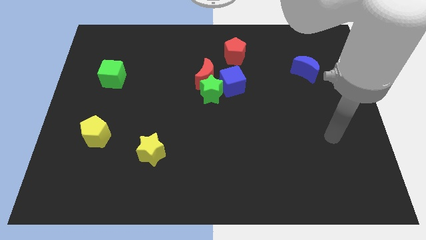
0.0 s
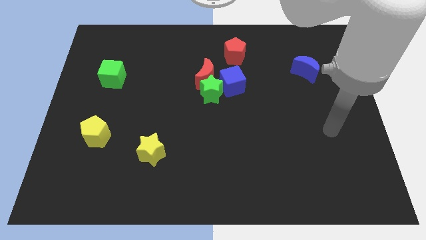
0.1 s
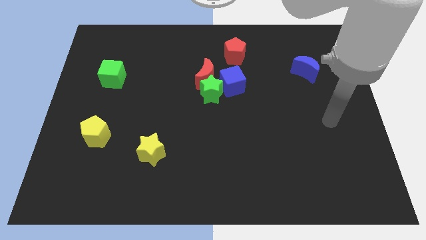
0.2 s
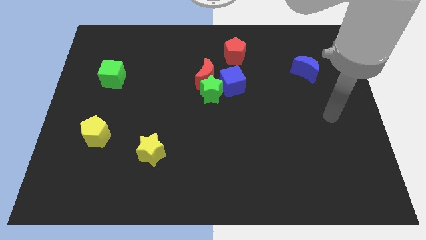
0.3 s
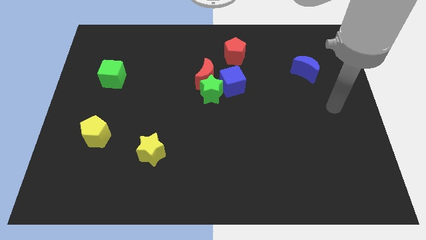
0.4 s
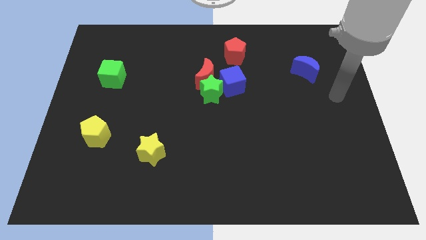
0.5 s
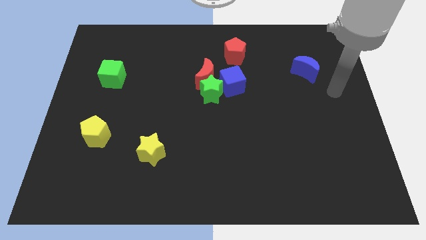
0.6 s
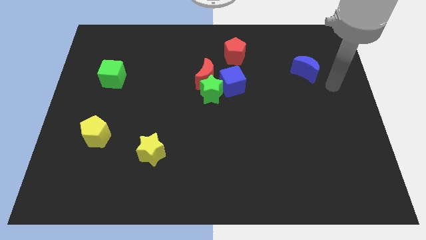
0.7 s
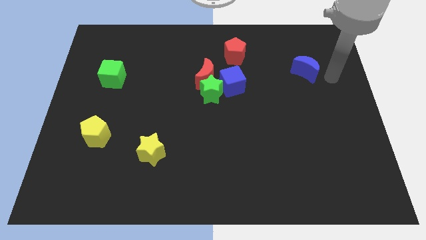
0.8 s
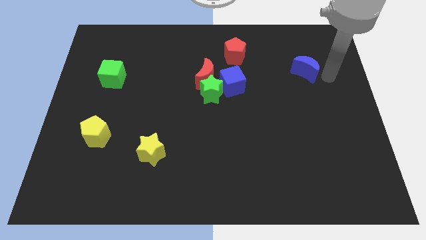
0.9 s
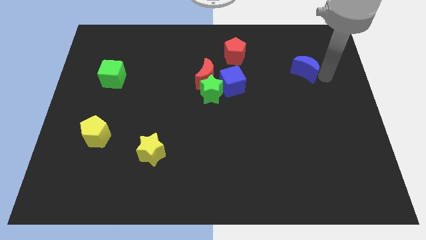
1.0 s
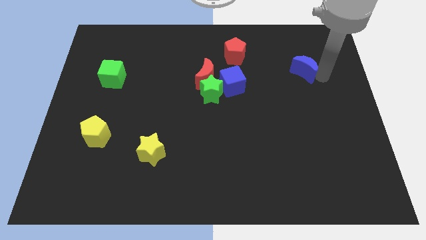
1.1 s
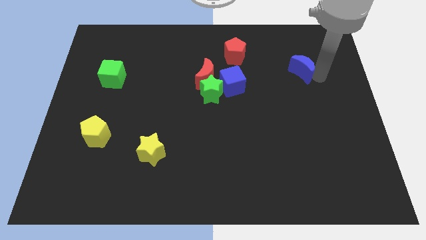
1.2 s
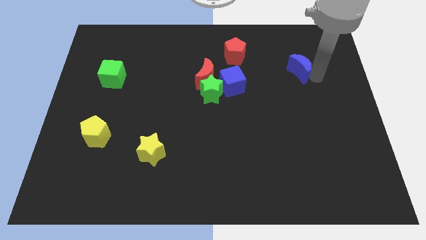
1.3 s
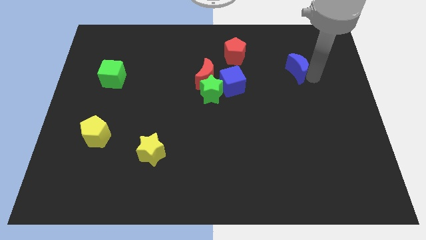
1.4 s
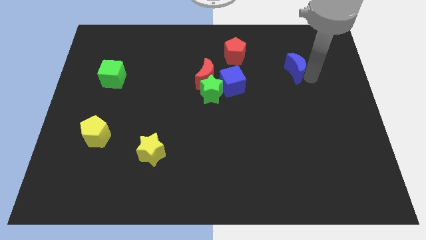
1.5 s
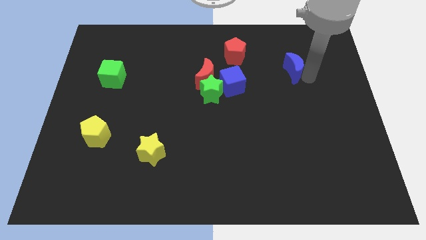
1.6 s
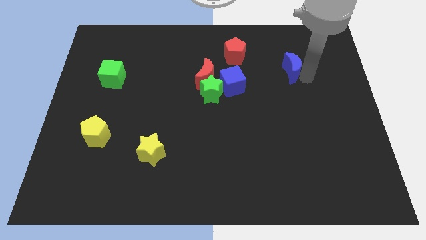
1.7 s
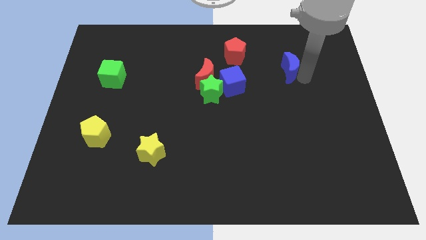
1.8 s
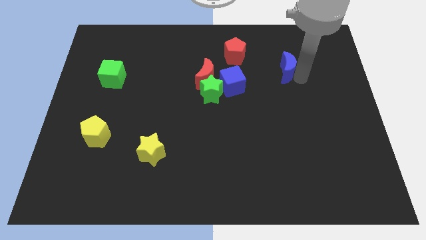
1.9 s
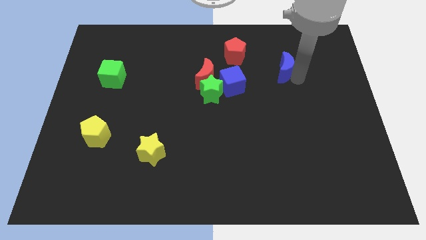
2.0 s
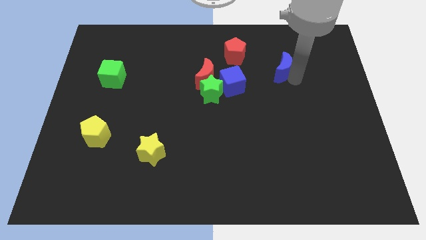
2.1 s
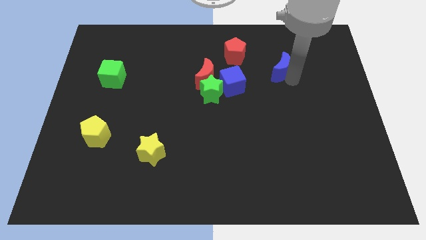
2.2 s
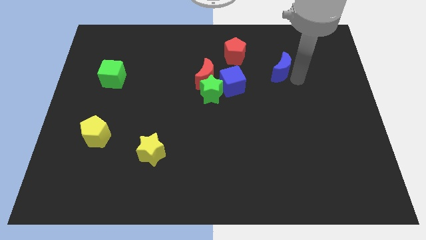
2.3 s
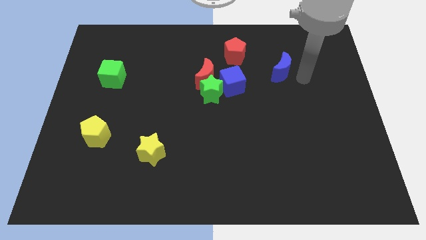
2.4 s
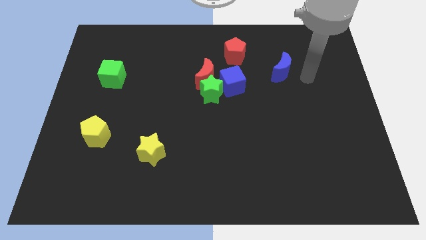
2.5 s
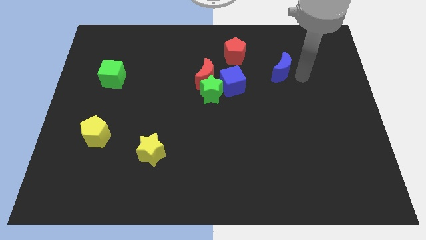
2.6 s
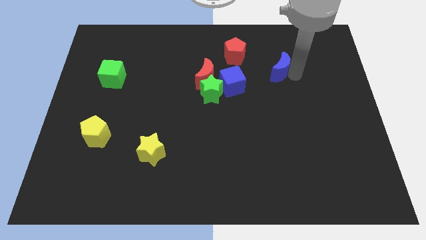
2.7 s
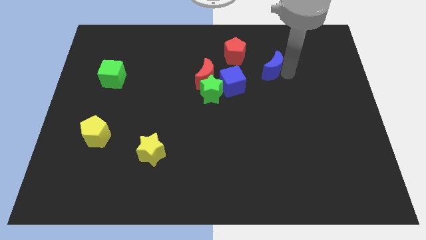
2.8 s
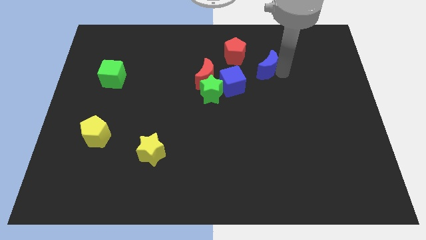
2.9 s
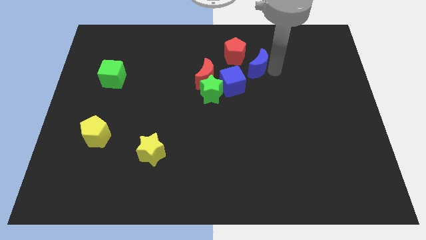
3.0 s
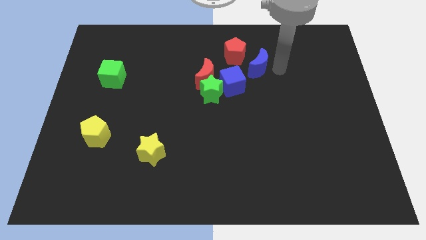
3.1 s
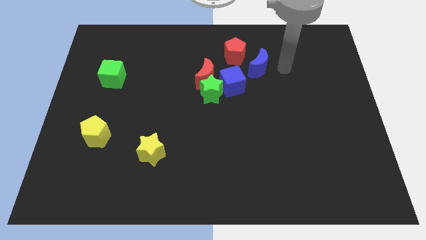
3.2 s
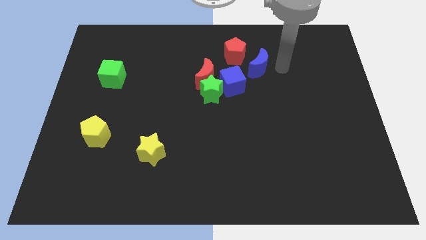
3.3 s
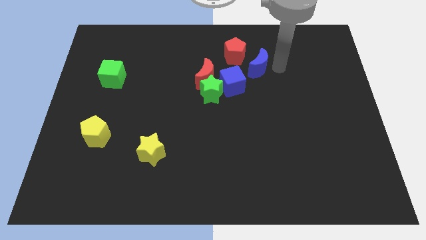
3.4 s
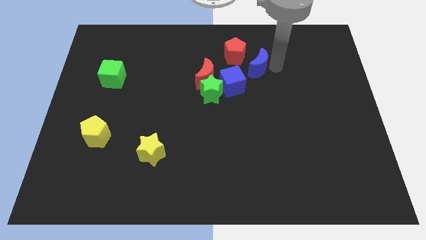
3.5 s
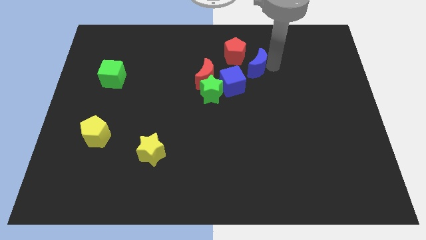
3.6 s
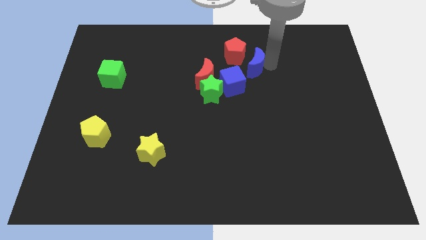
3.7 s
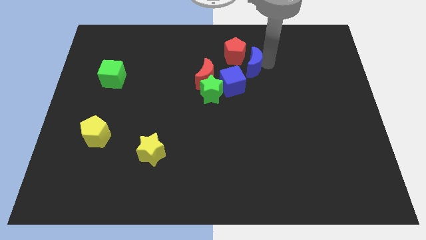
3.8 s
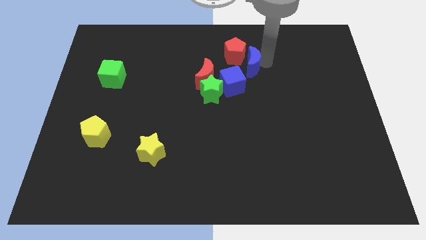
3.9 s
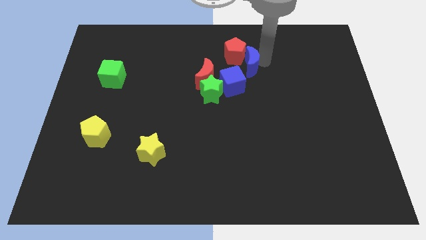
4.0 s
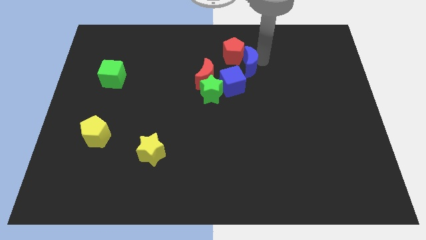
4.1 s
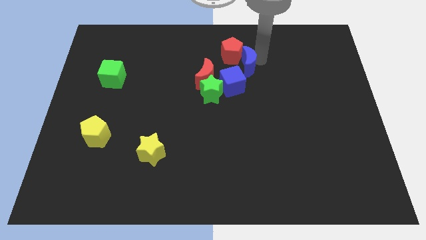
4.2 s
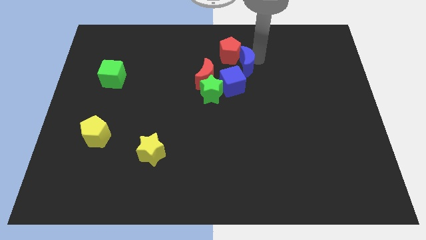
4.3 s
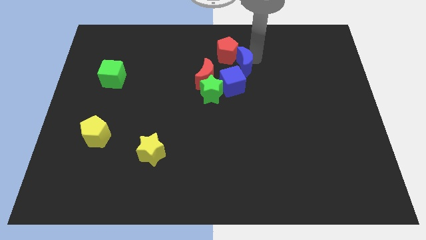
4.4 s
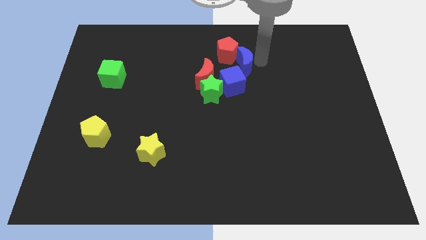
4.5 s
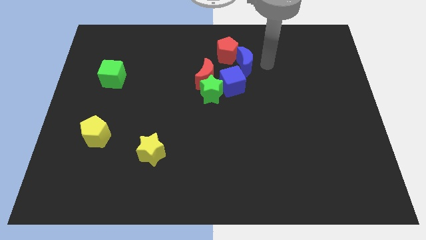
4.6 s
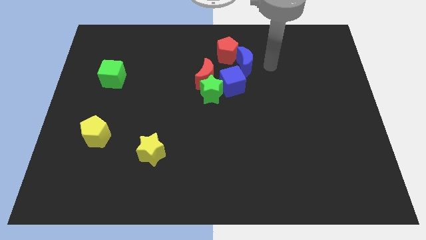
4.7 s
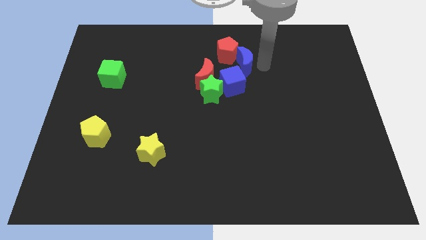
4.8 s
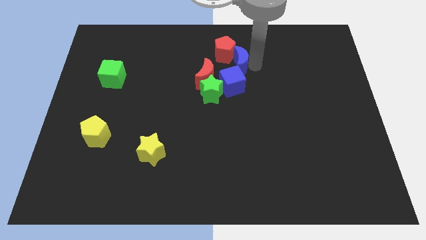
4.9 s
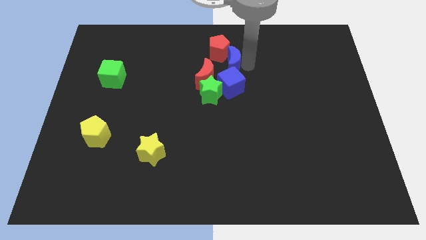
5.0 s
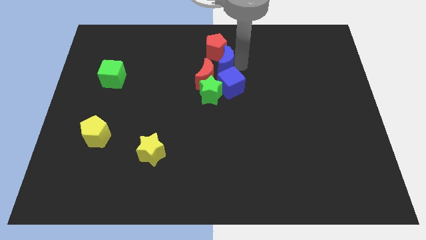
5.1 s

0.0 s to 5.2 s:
slide the blue moon left

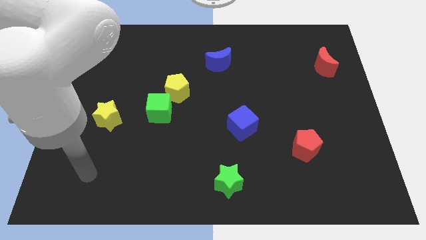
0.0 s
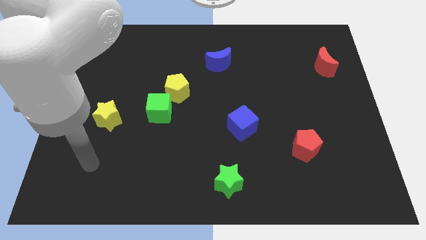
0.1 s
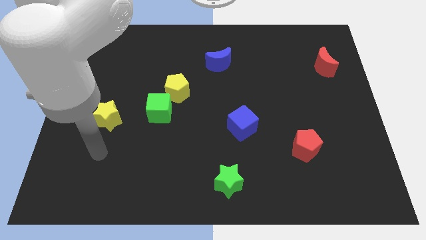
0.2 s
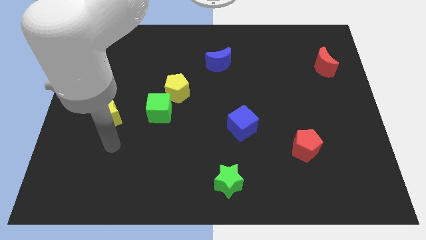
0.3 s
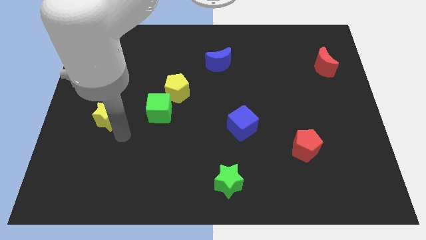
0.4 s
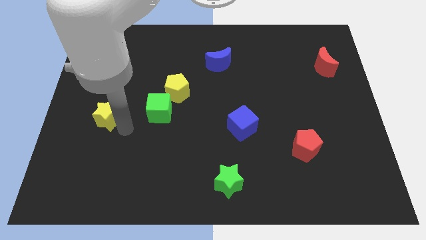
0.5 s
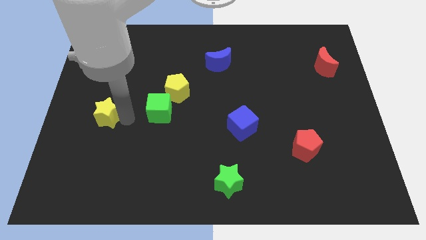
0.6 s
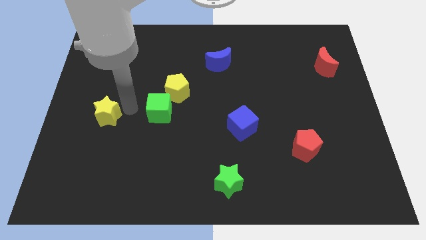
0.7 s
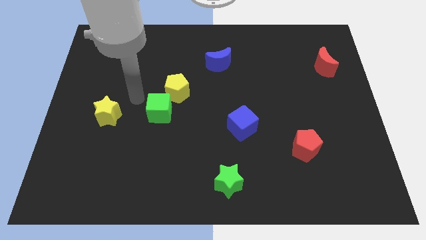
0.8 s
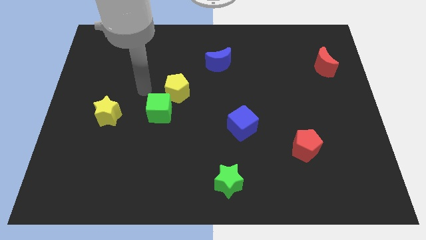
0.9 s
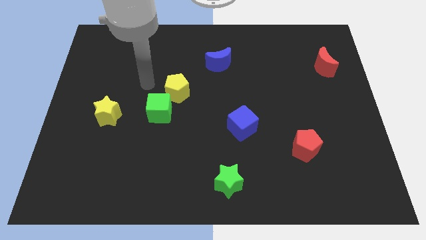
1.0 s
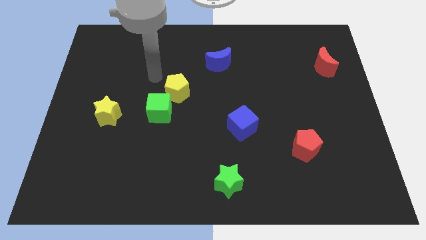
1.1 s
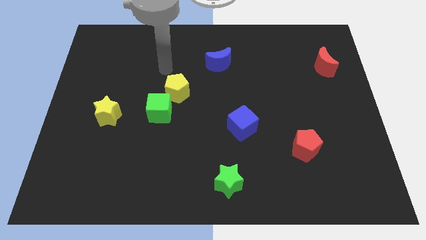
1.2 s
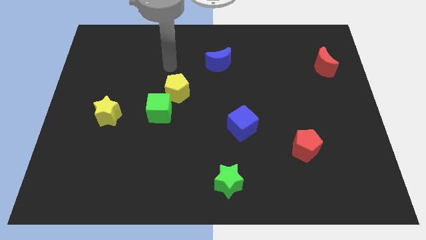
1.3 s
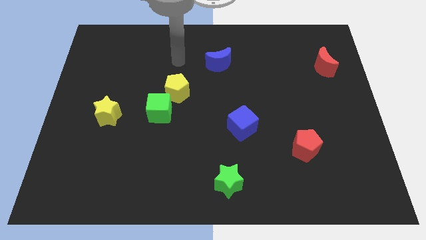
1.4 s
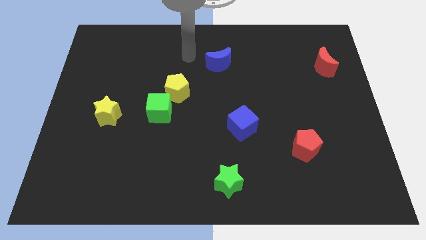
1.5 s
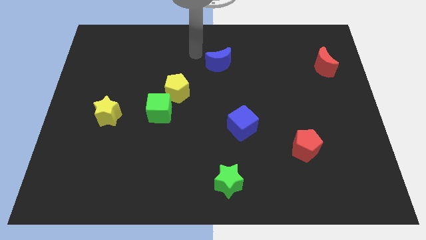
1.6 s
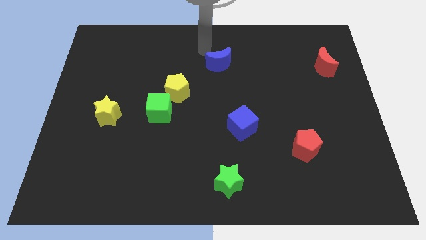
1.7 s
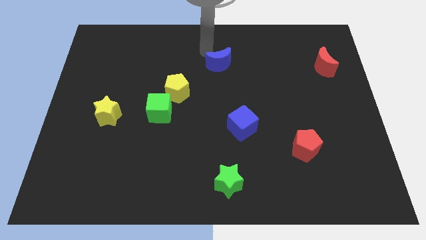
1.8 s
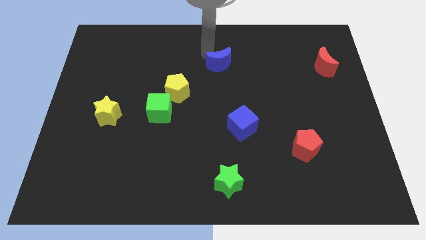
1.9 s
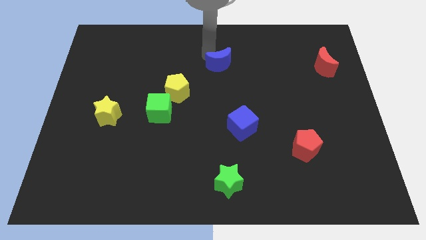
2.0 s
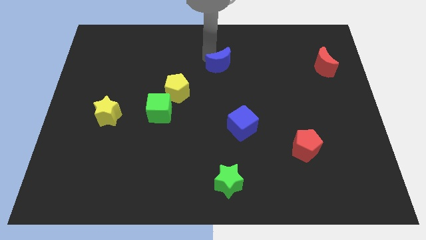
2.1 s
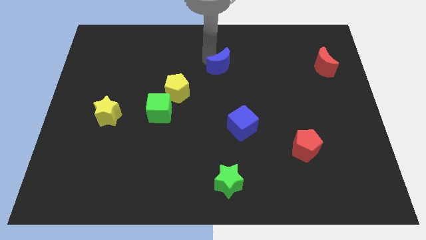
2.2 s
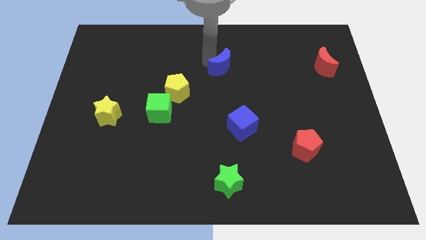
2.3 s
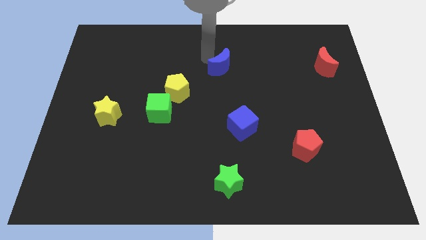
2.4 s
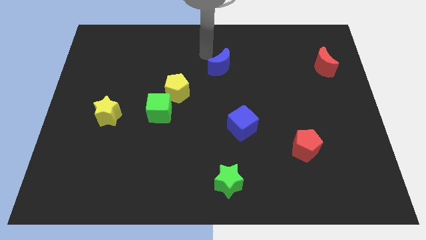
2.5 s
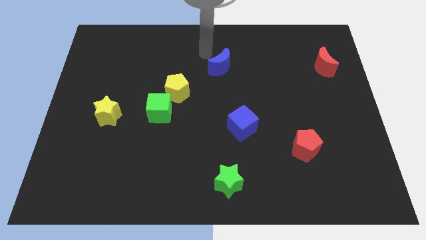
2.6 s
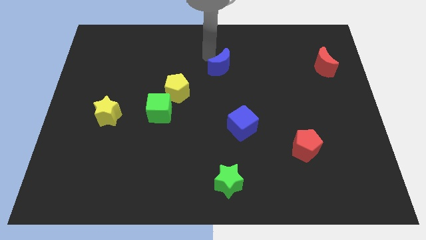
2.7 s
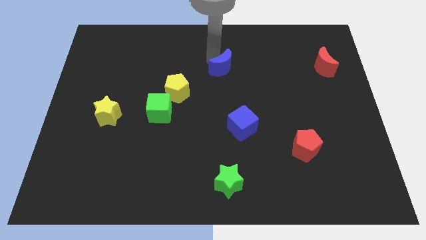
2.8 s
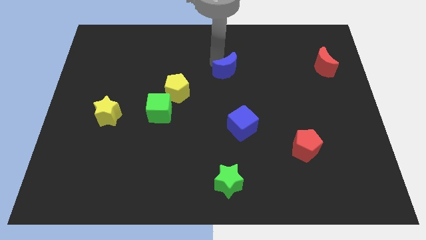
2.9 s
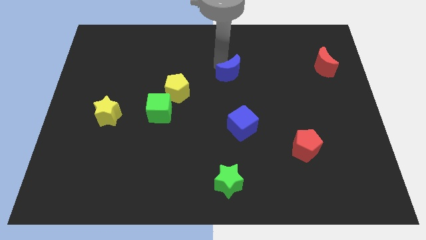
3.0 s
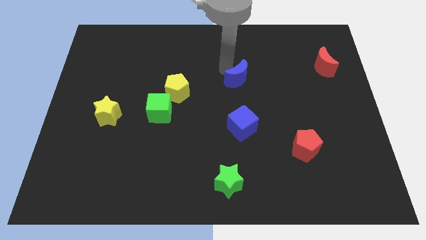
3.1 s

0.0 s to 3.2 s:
slightly move the blue moon diagonally down and to the right
